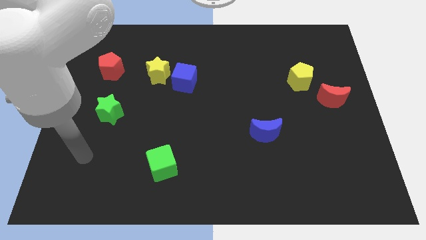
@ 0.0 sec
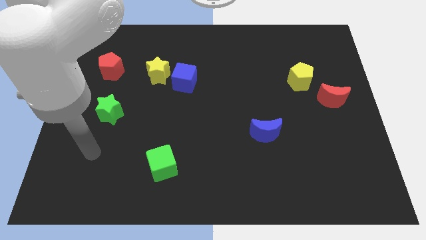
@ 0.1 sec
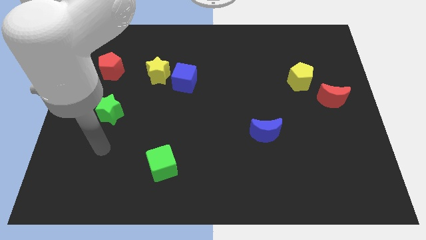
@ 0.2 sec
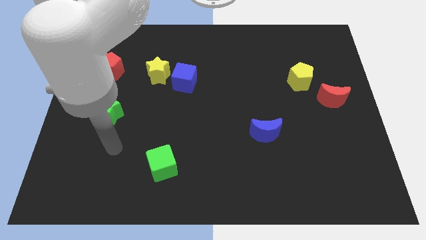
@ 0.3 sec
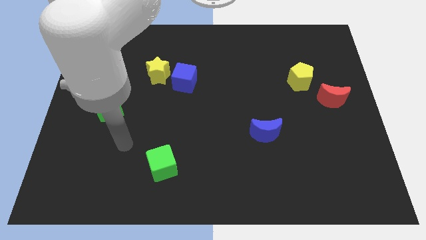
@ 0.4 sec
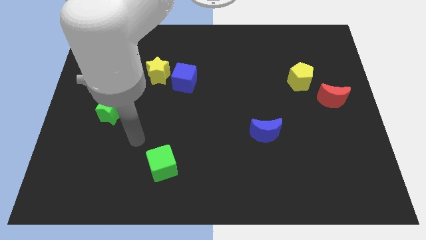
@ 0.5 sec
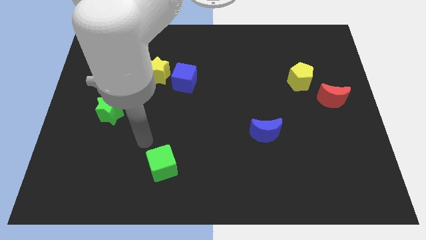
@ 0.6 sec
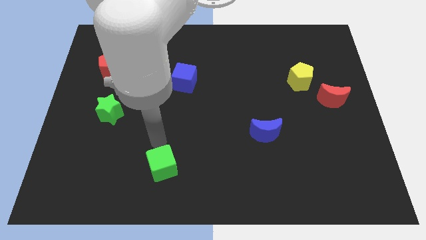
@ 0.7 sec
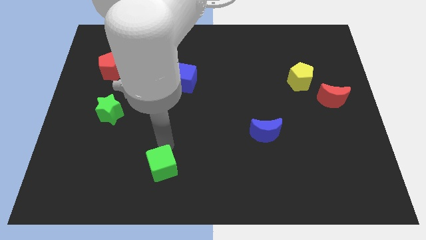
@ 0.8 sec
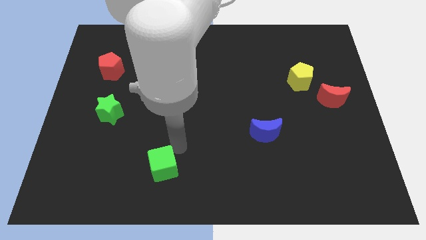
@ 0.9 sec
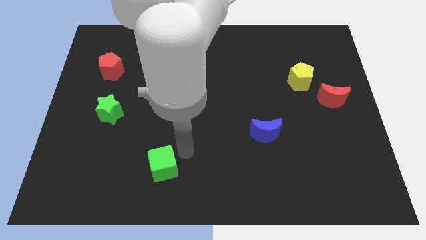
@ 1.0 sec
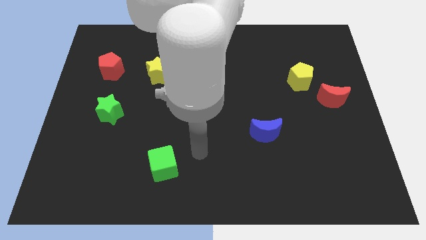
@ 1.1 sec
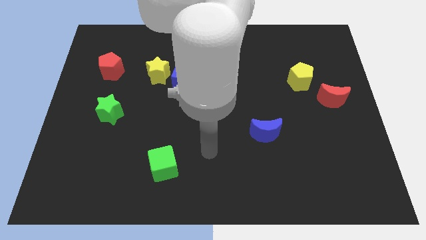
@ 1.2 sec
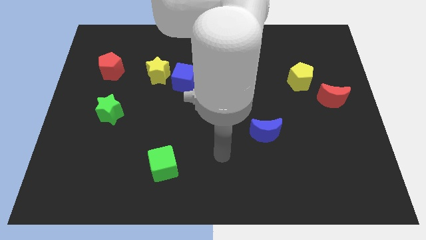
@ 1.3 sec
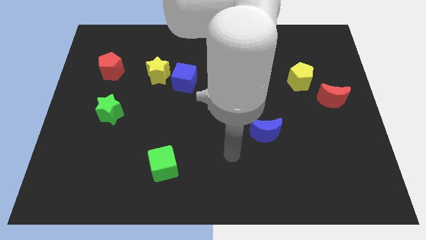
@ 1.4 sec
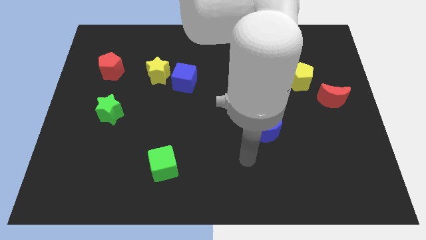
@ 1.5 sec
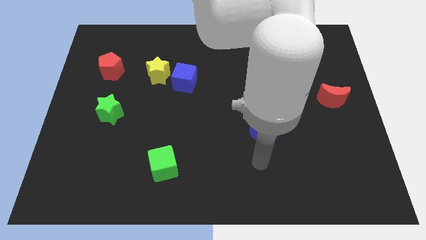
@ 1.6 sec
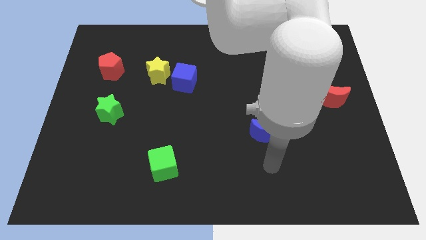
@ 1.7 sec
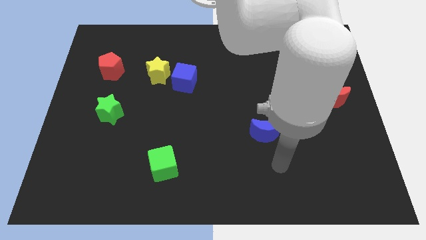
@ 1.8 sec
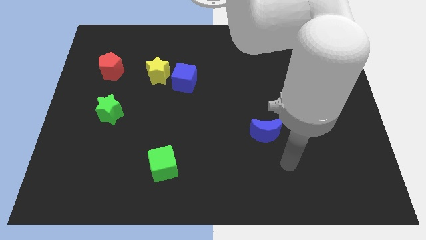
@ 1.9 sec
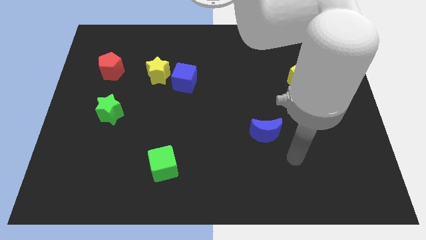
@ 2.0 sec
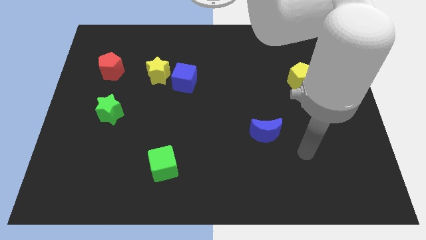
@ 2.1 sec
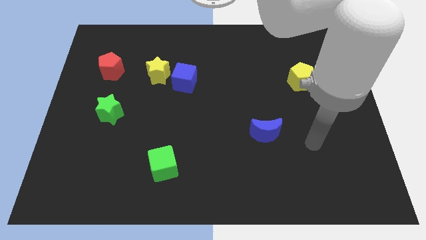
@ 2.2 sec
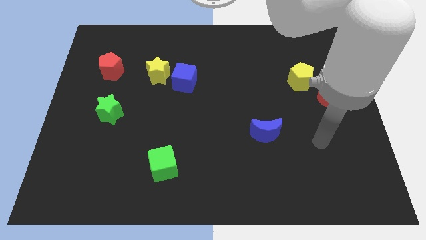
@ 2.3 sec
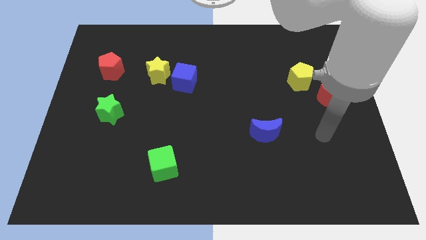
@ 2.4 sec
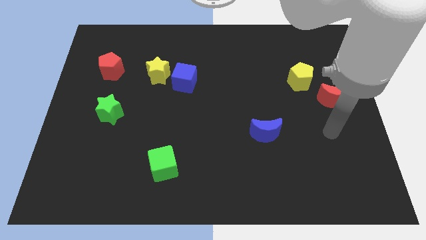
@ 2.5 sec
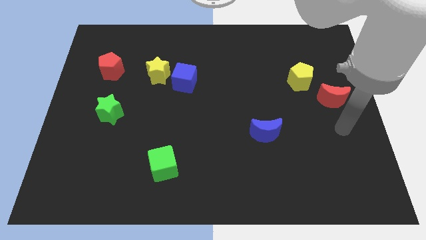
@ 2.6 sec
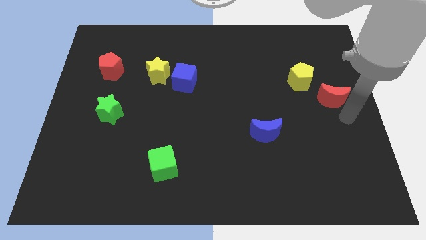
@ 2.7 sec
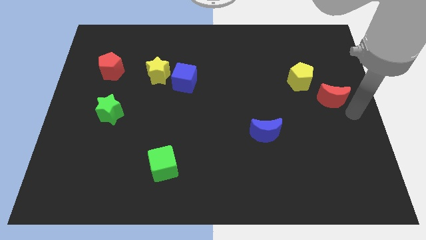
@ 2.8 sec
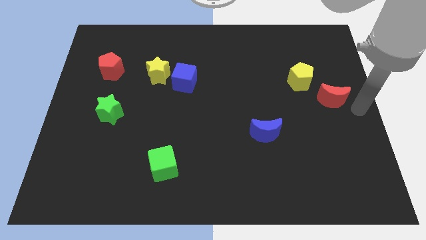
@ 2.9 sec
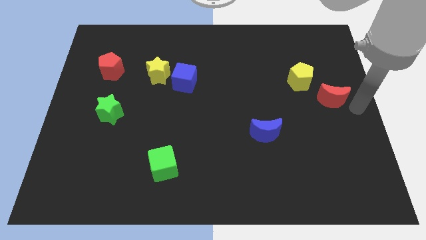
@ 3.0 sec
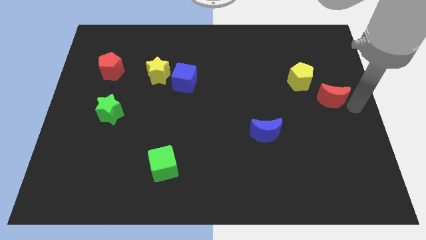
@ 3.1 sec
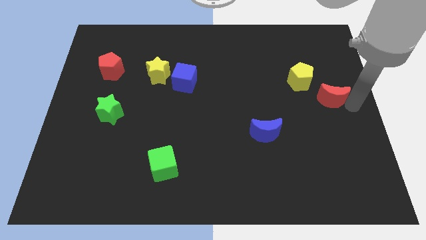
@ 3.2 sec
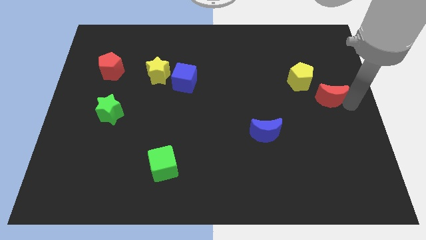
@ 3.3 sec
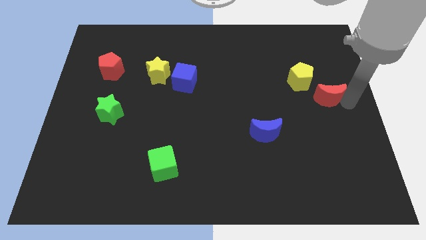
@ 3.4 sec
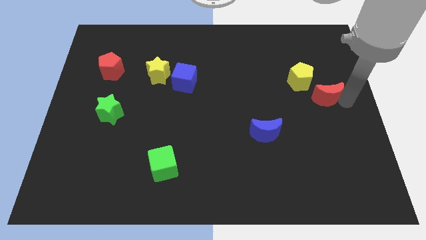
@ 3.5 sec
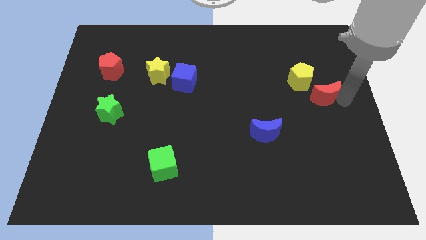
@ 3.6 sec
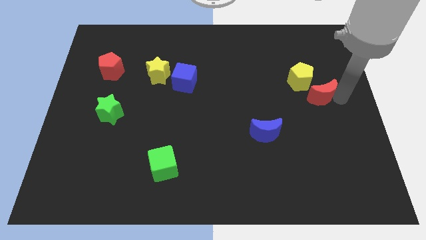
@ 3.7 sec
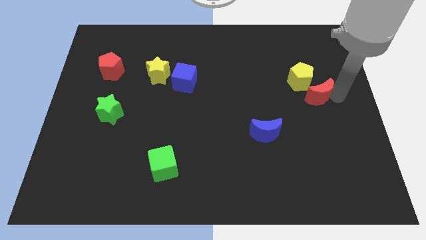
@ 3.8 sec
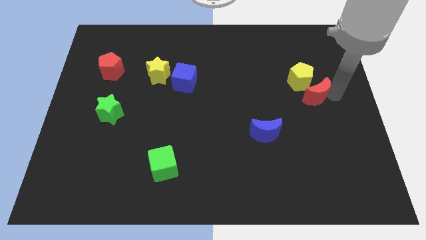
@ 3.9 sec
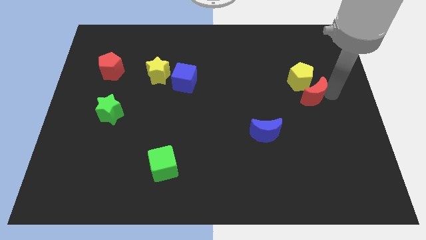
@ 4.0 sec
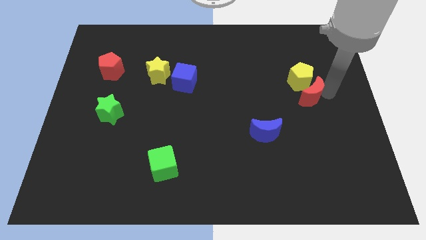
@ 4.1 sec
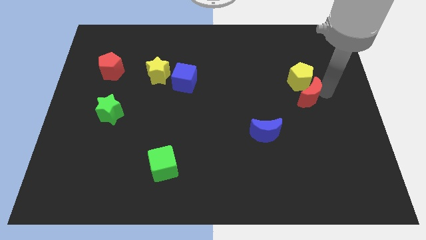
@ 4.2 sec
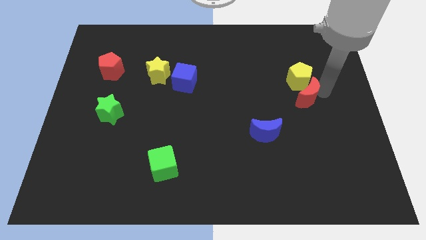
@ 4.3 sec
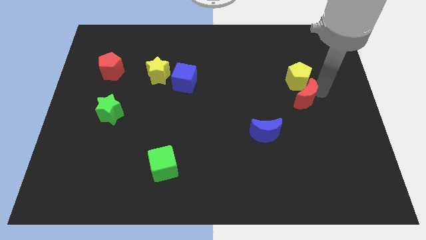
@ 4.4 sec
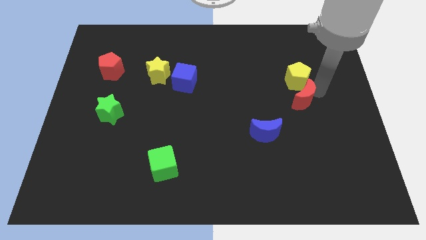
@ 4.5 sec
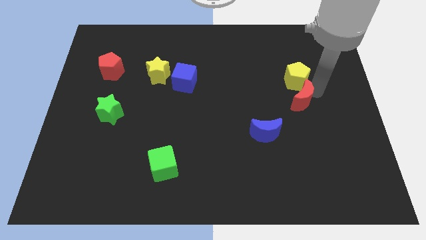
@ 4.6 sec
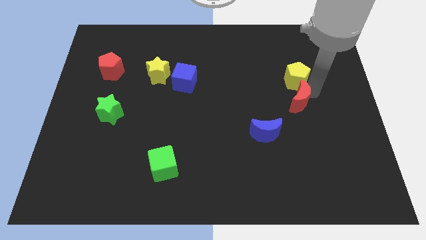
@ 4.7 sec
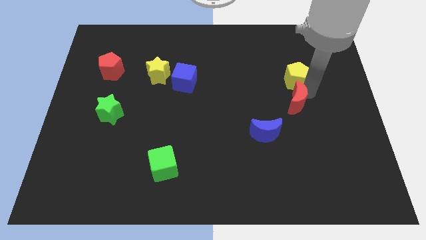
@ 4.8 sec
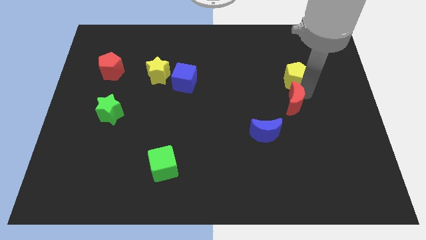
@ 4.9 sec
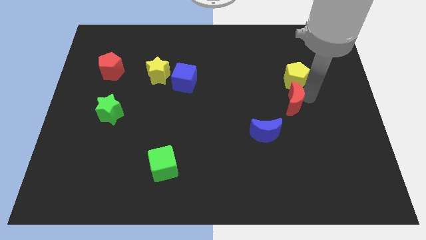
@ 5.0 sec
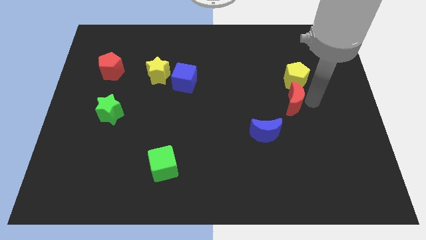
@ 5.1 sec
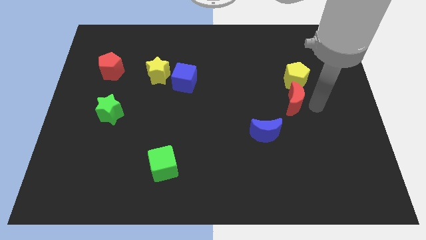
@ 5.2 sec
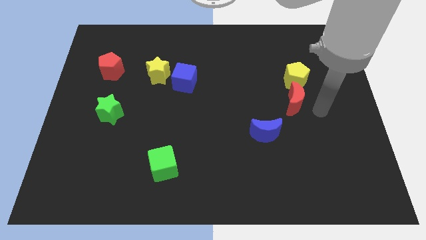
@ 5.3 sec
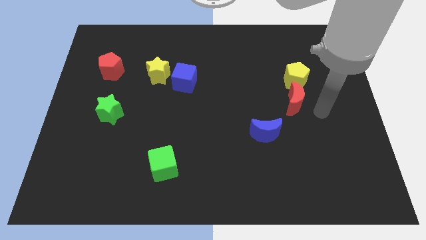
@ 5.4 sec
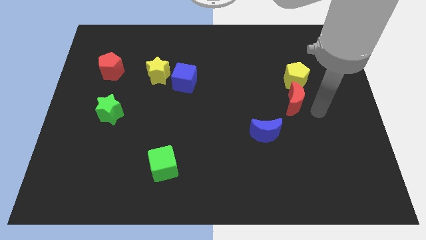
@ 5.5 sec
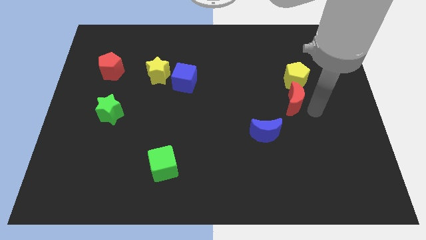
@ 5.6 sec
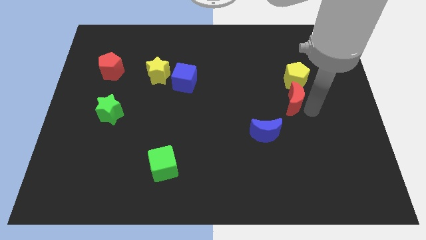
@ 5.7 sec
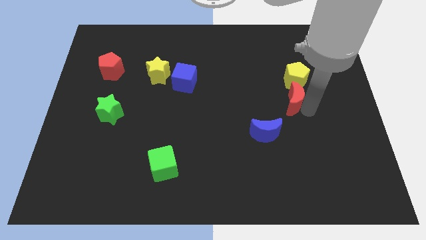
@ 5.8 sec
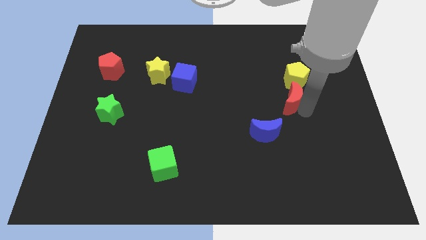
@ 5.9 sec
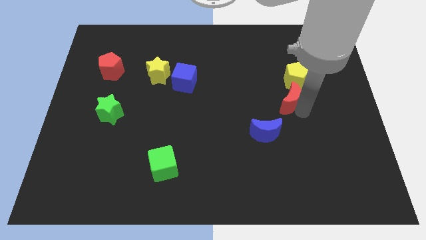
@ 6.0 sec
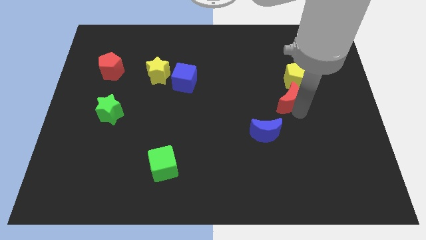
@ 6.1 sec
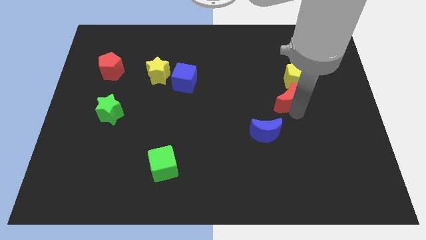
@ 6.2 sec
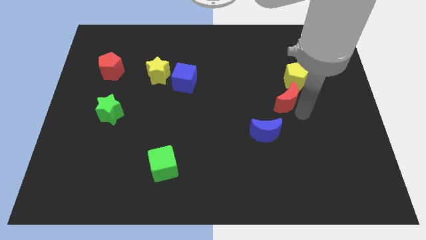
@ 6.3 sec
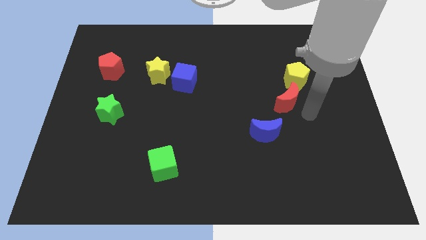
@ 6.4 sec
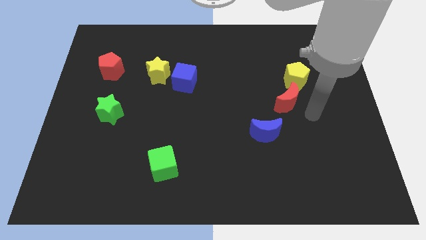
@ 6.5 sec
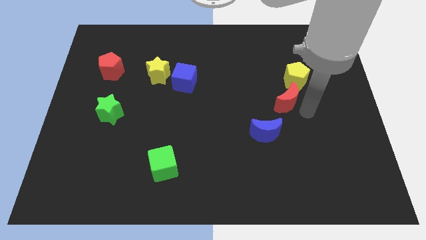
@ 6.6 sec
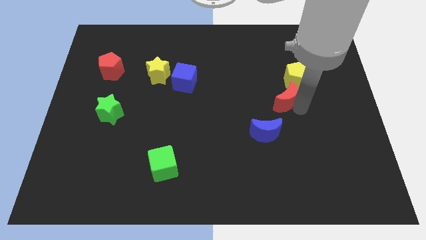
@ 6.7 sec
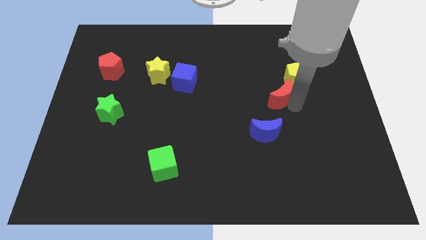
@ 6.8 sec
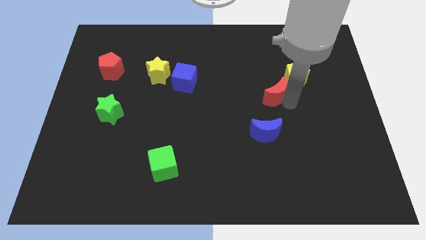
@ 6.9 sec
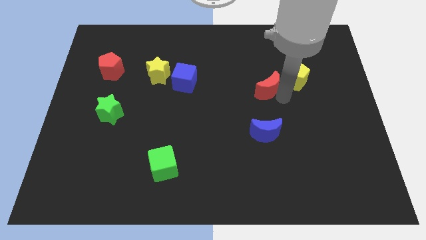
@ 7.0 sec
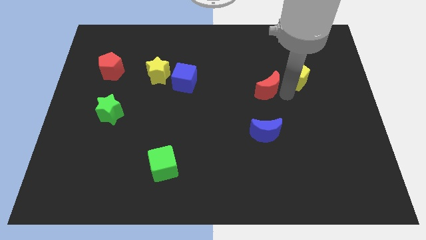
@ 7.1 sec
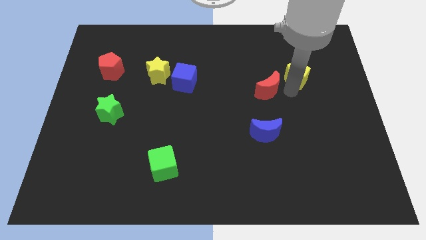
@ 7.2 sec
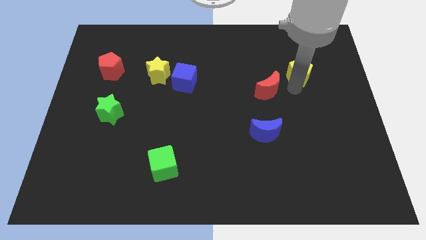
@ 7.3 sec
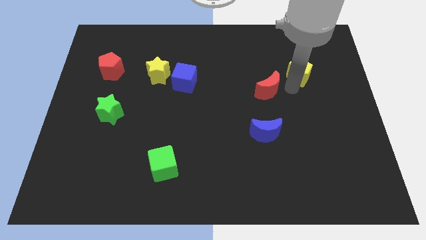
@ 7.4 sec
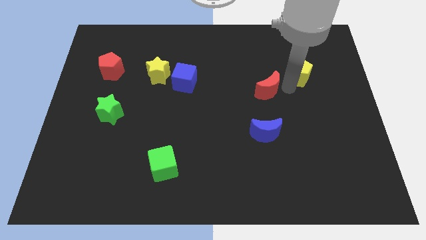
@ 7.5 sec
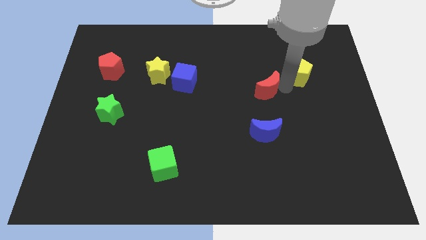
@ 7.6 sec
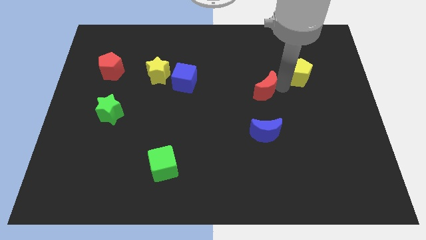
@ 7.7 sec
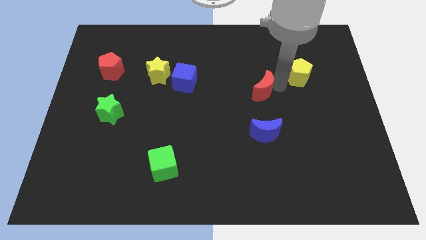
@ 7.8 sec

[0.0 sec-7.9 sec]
put the red moon to the center
